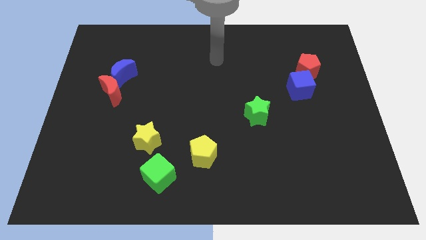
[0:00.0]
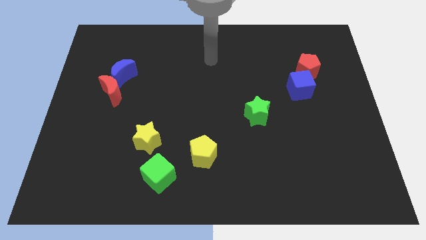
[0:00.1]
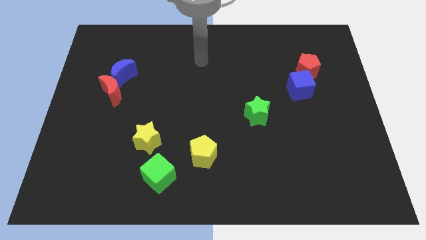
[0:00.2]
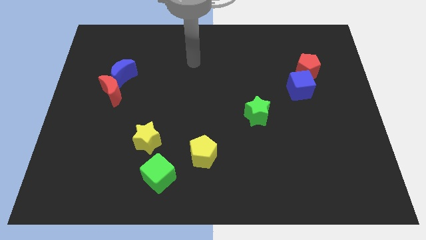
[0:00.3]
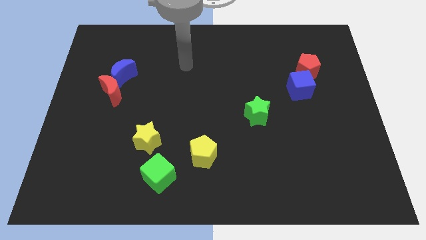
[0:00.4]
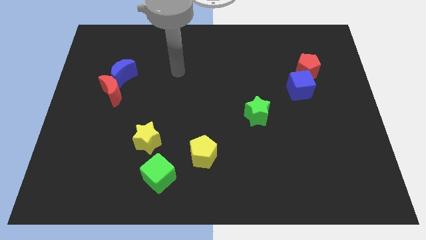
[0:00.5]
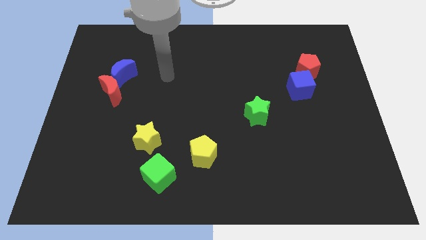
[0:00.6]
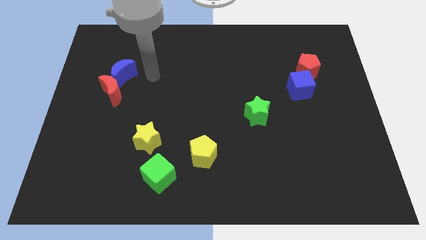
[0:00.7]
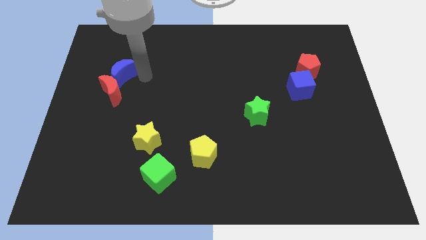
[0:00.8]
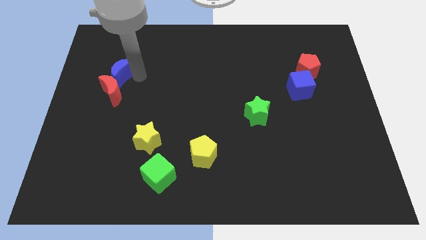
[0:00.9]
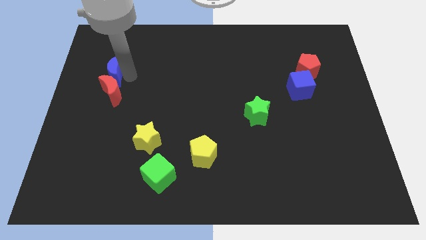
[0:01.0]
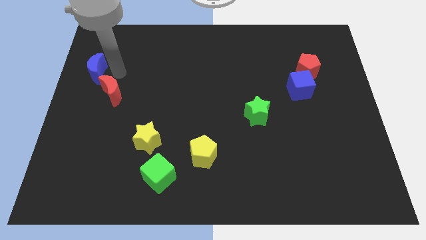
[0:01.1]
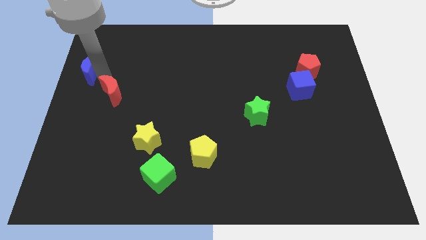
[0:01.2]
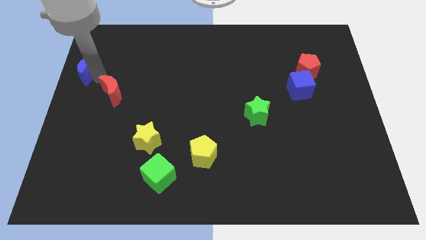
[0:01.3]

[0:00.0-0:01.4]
pull the red moon apart from the blue moon

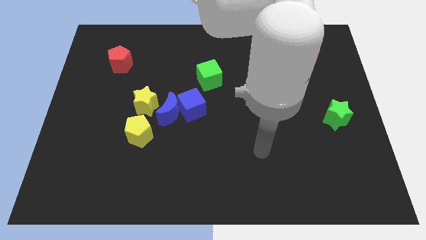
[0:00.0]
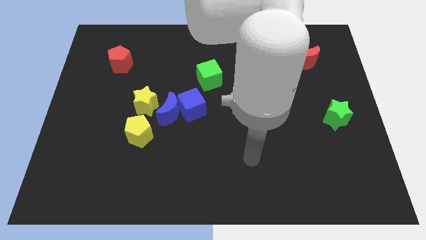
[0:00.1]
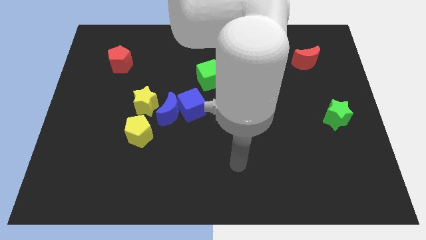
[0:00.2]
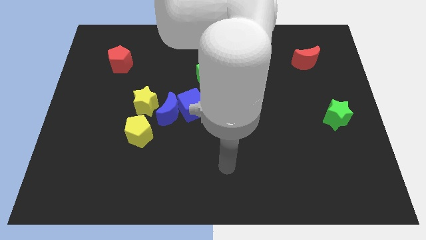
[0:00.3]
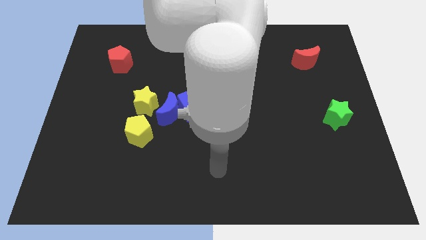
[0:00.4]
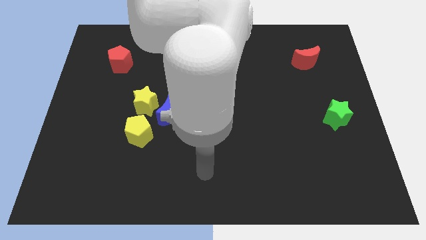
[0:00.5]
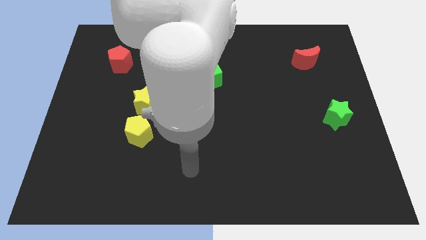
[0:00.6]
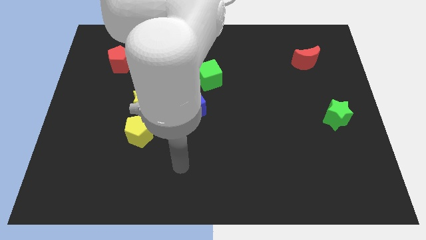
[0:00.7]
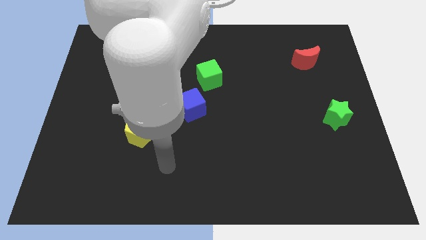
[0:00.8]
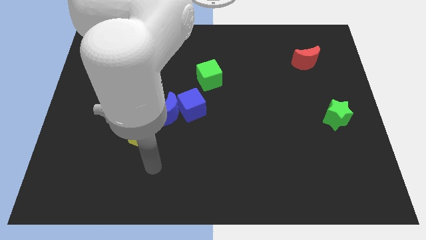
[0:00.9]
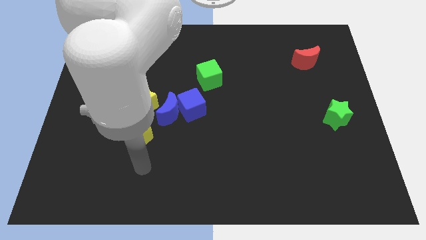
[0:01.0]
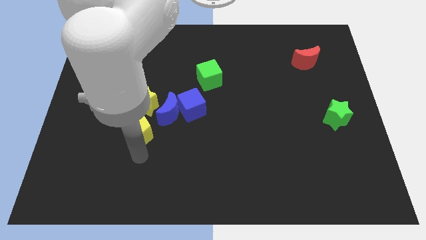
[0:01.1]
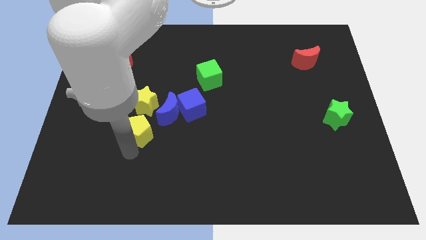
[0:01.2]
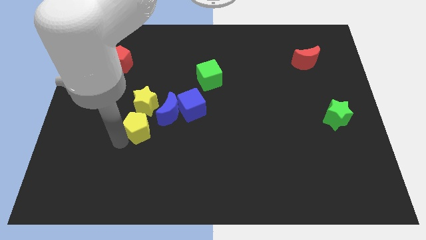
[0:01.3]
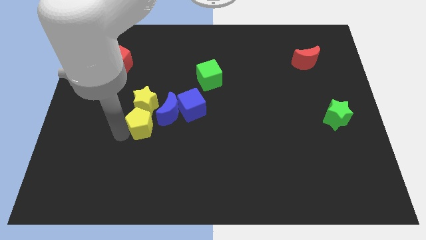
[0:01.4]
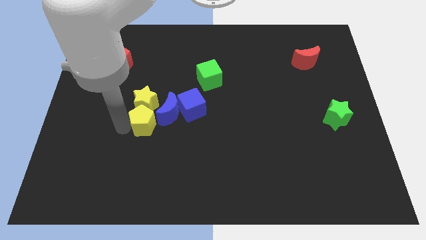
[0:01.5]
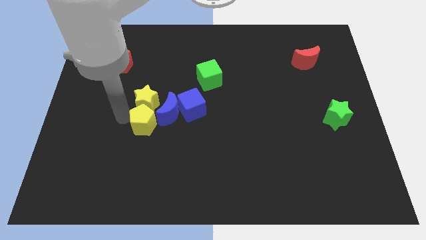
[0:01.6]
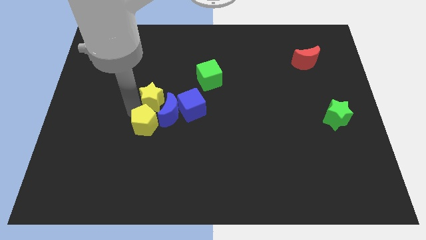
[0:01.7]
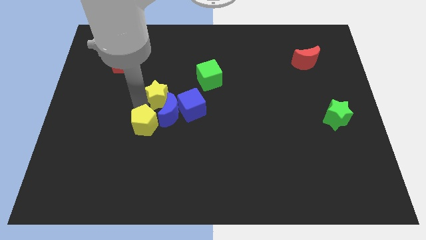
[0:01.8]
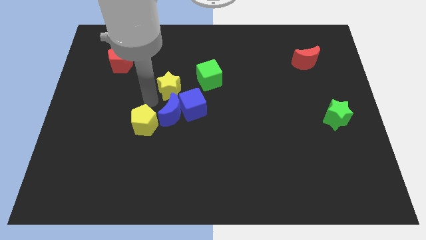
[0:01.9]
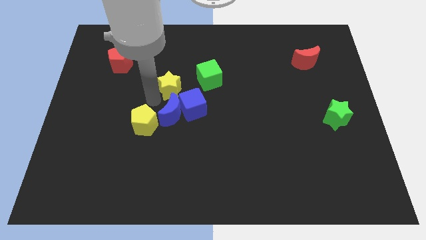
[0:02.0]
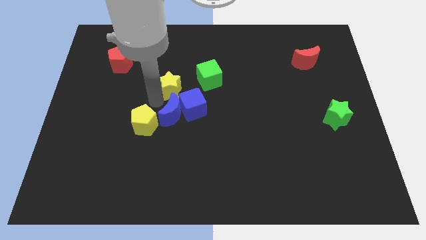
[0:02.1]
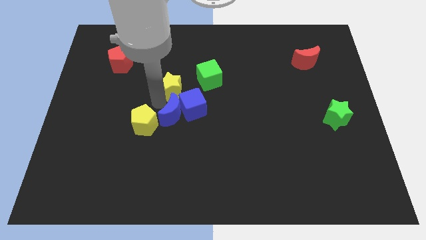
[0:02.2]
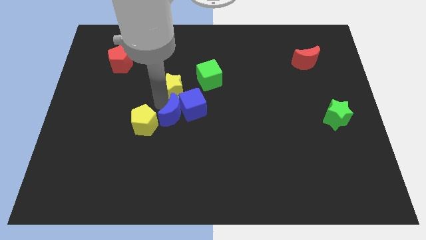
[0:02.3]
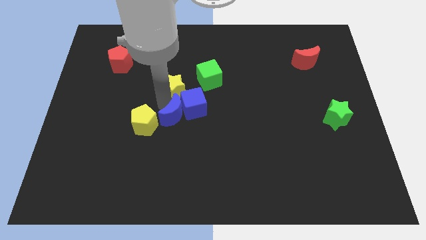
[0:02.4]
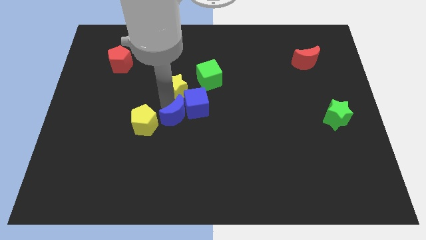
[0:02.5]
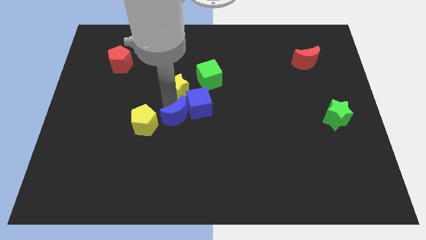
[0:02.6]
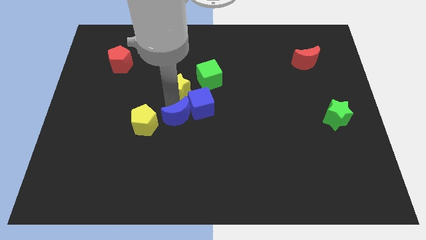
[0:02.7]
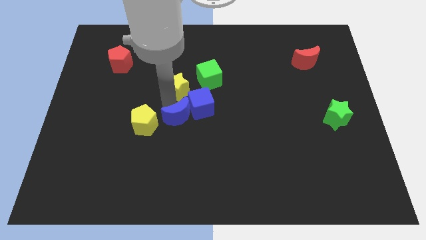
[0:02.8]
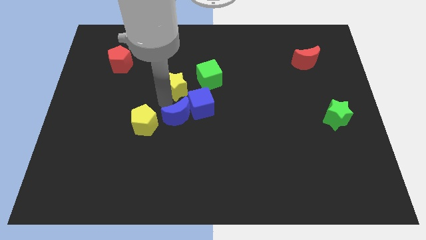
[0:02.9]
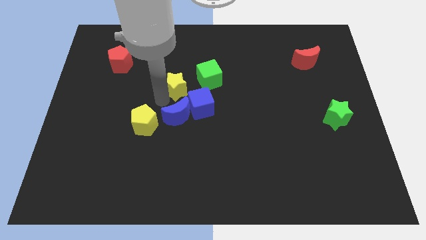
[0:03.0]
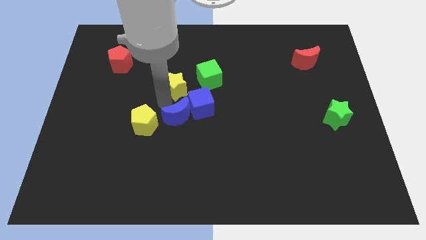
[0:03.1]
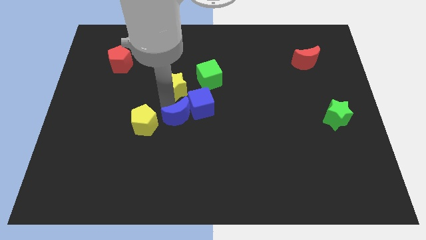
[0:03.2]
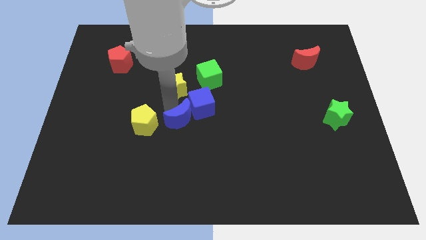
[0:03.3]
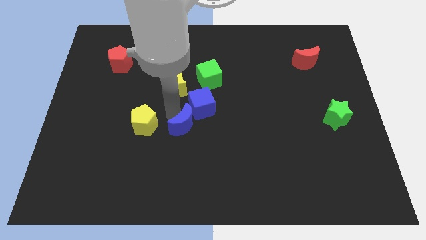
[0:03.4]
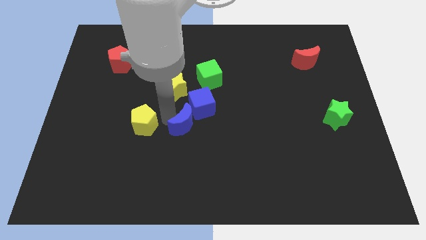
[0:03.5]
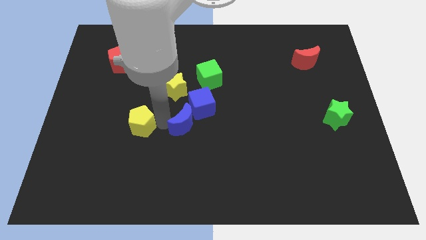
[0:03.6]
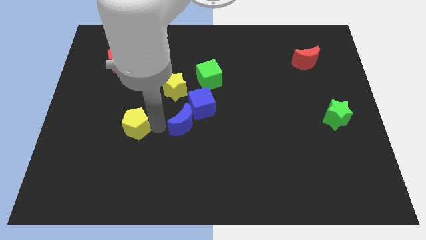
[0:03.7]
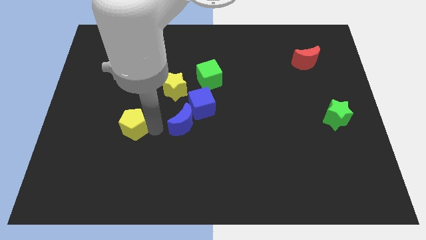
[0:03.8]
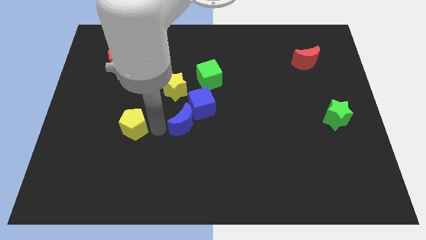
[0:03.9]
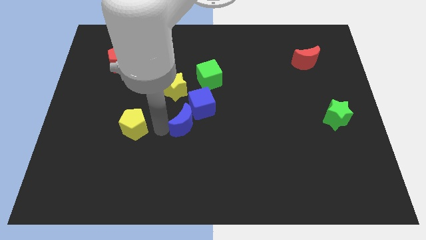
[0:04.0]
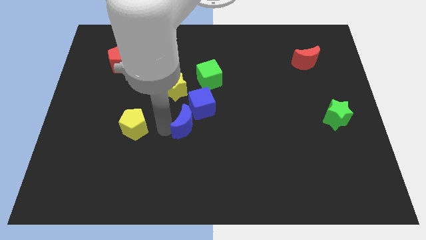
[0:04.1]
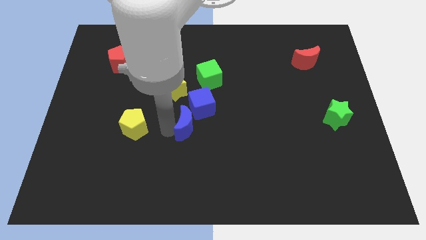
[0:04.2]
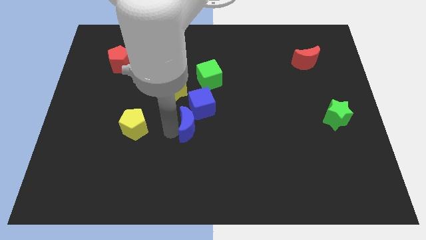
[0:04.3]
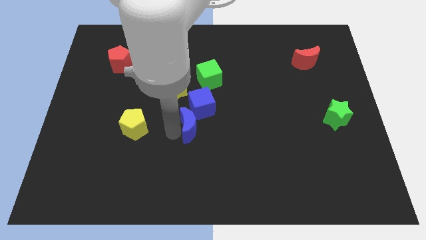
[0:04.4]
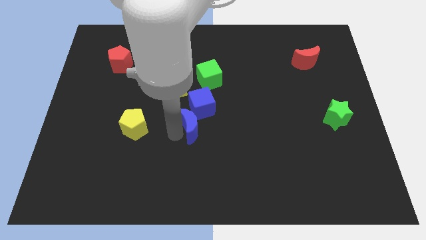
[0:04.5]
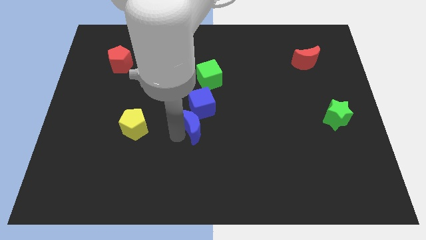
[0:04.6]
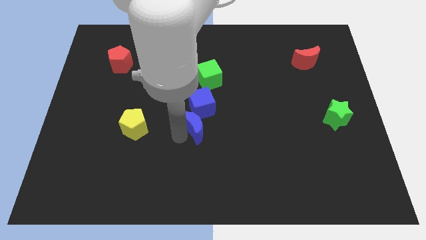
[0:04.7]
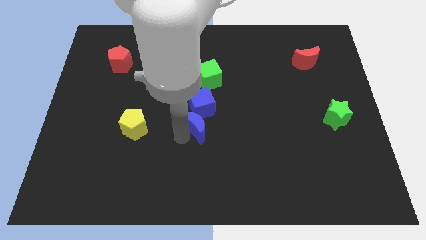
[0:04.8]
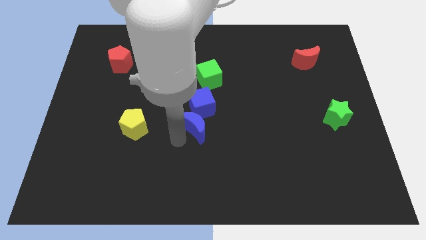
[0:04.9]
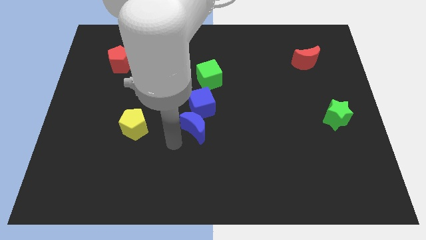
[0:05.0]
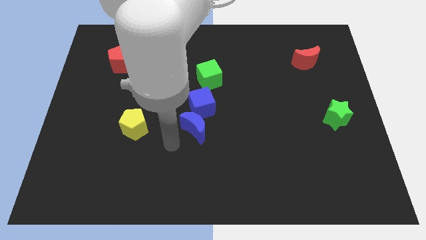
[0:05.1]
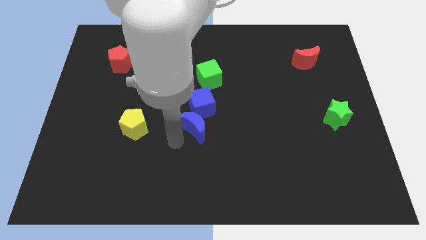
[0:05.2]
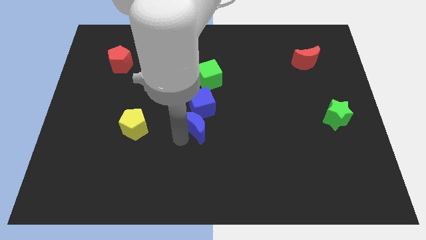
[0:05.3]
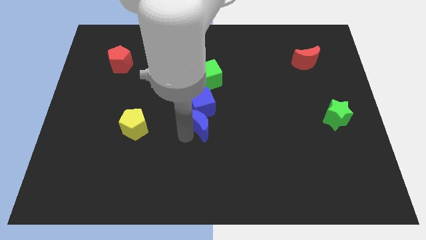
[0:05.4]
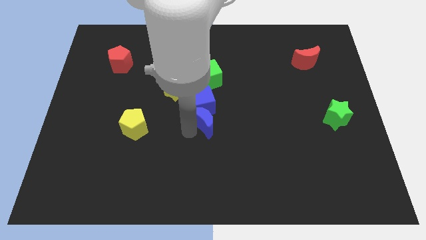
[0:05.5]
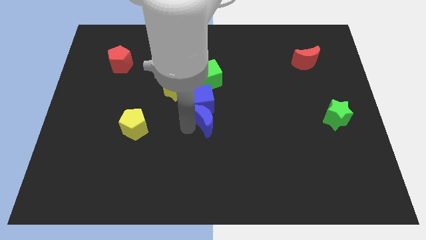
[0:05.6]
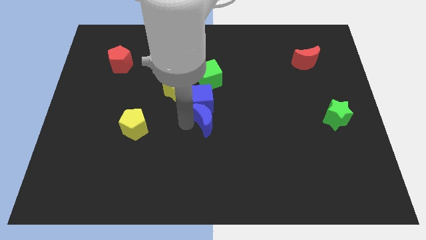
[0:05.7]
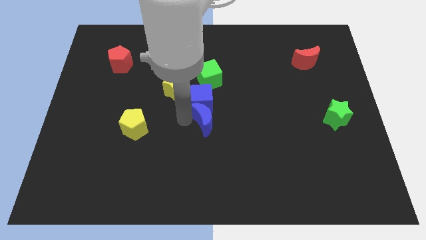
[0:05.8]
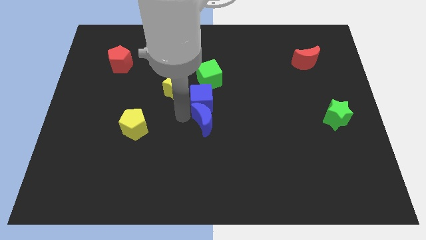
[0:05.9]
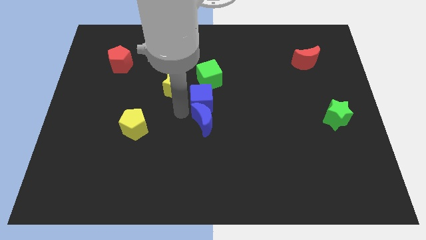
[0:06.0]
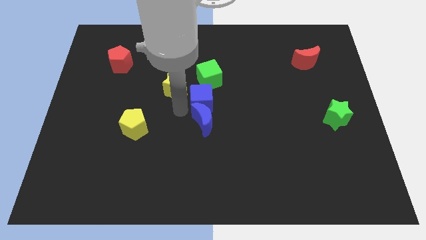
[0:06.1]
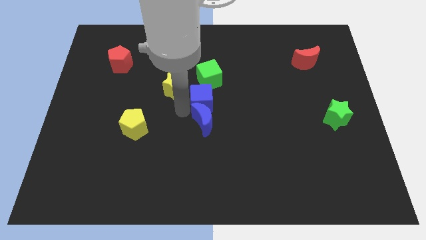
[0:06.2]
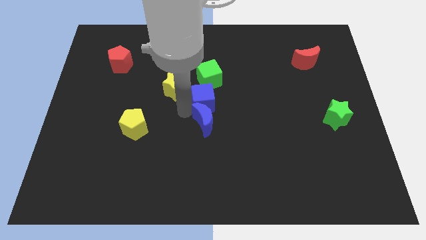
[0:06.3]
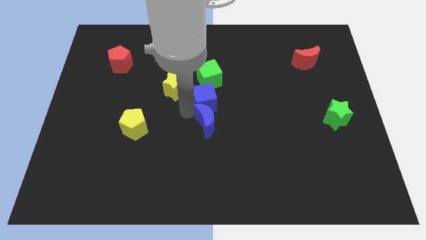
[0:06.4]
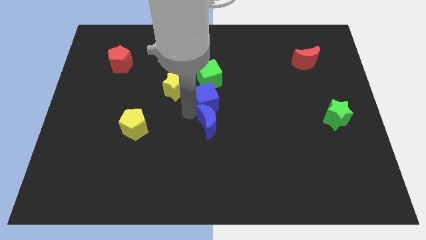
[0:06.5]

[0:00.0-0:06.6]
pull the blue moon apart from the blue cube, yellow star, and yellow pentagon

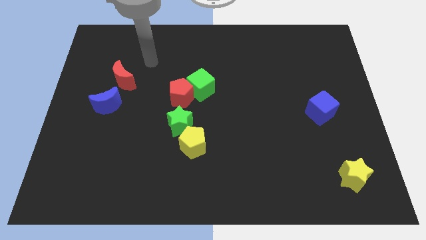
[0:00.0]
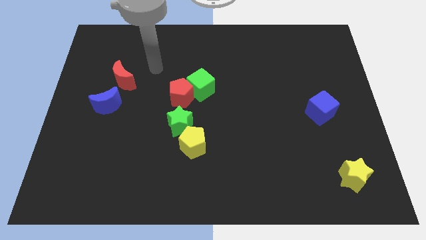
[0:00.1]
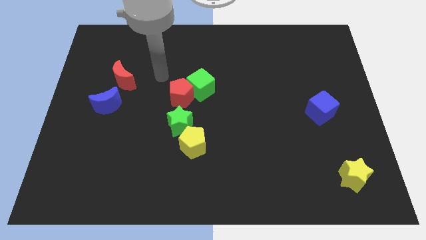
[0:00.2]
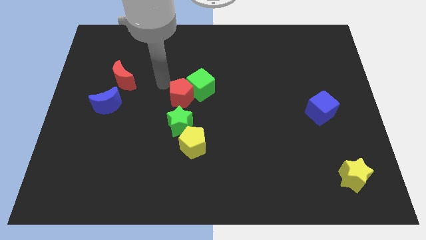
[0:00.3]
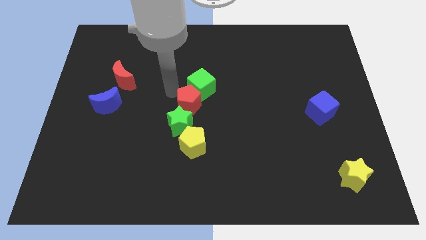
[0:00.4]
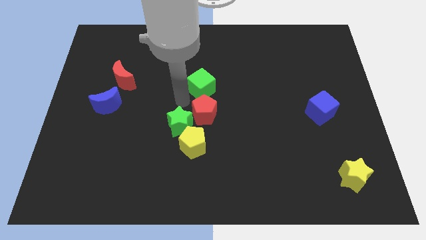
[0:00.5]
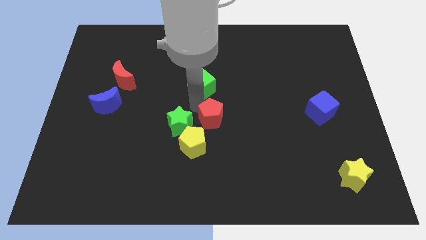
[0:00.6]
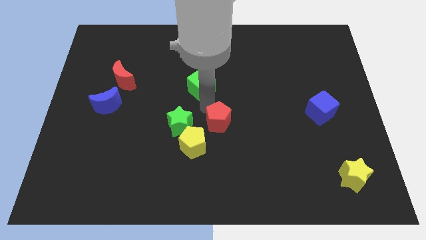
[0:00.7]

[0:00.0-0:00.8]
pull the green cube apart from the red pentagon

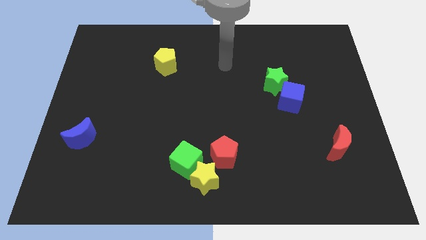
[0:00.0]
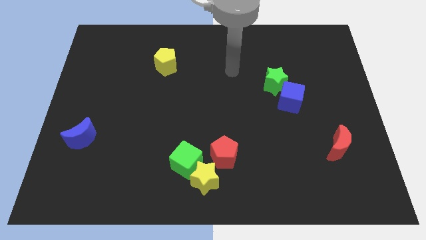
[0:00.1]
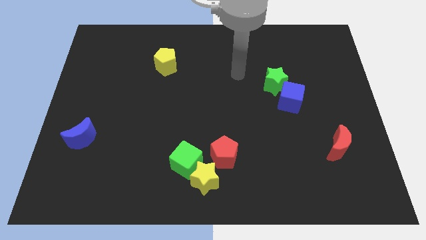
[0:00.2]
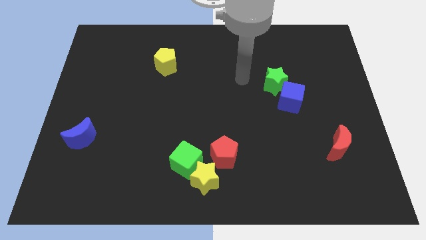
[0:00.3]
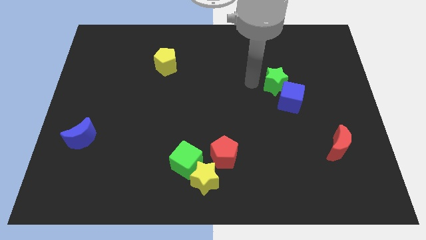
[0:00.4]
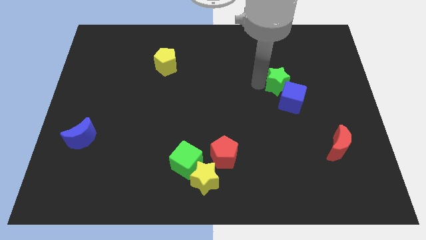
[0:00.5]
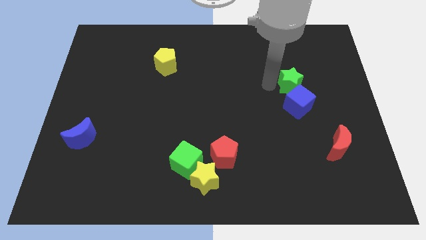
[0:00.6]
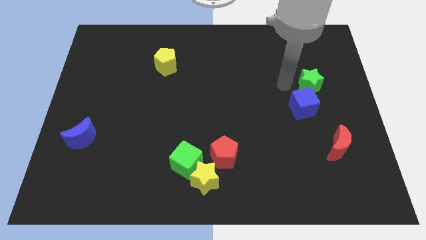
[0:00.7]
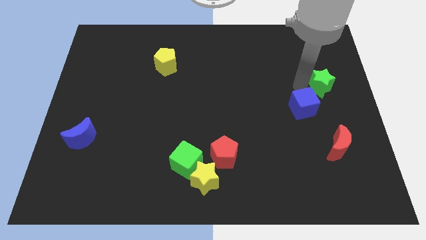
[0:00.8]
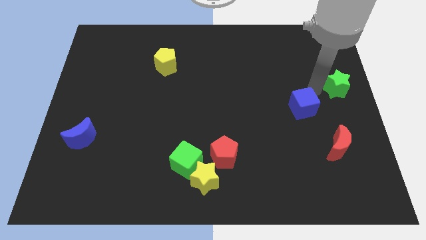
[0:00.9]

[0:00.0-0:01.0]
pull the blue cube apart from the green star
